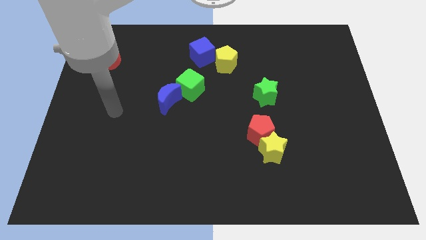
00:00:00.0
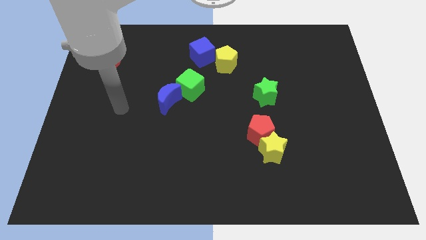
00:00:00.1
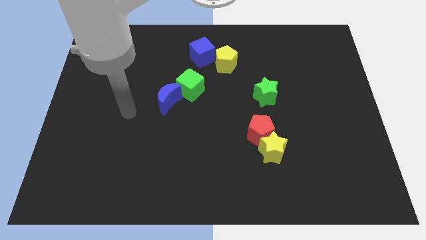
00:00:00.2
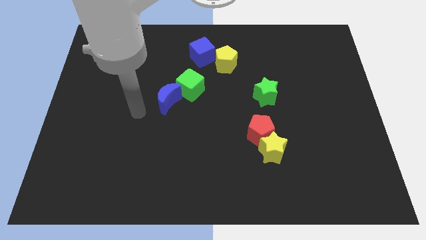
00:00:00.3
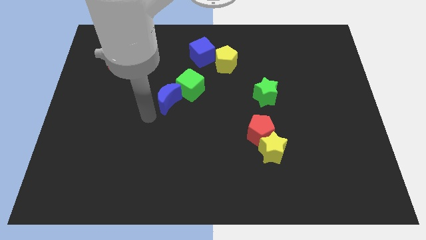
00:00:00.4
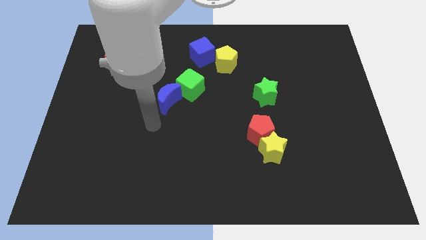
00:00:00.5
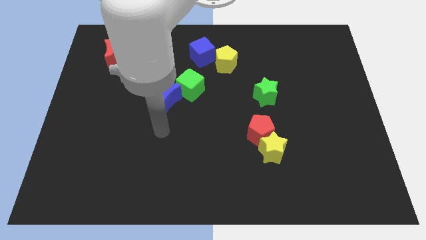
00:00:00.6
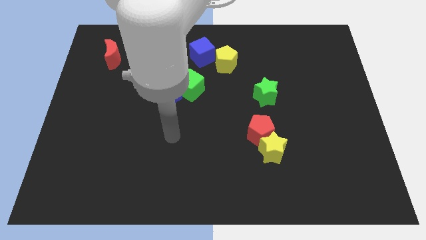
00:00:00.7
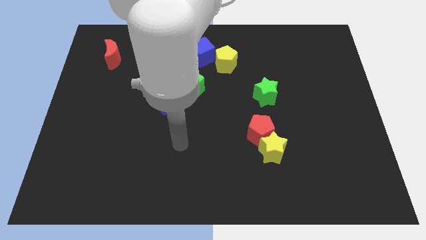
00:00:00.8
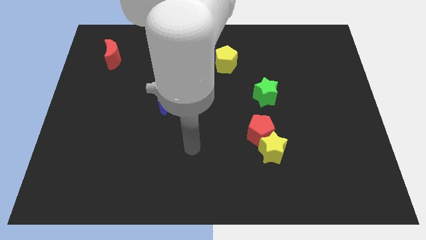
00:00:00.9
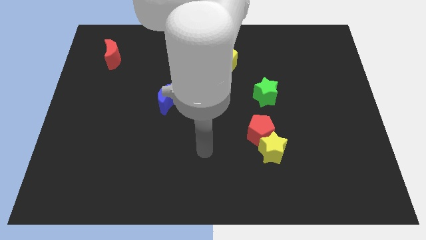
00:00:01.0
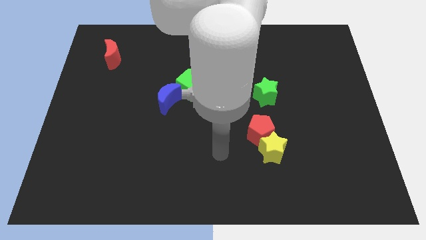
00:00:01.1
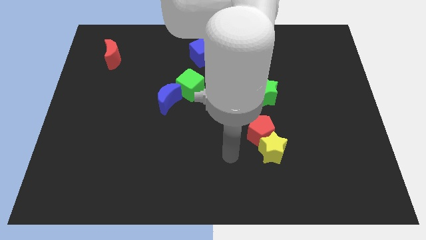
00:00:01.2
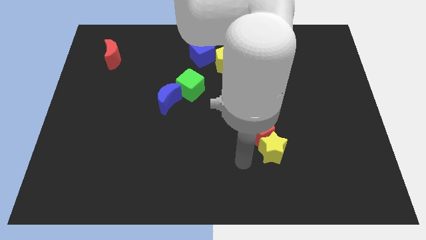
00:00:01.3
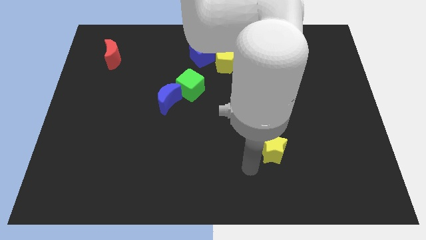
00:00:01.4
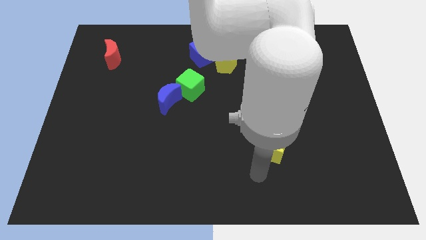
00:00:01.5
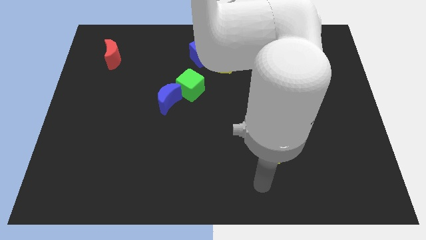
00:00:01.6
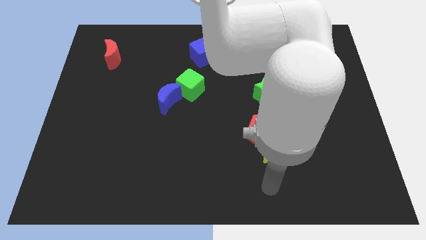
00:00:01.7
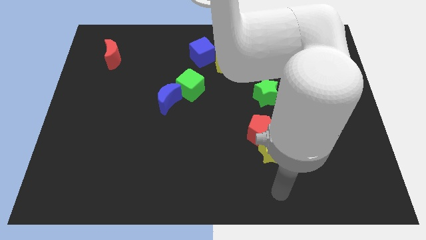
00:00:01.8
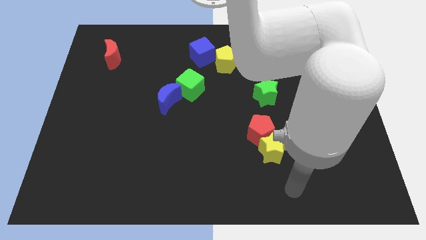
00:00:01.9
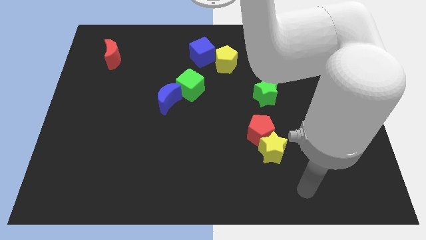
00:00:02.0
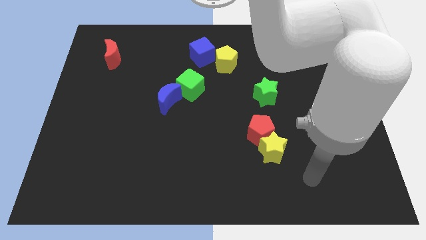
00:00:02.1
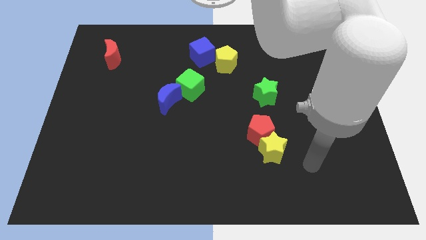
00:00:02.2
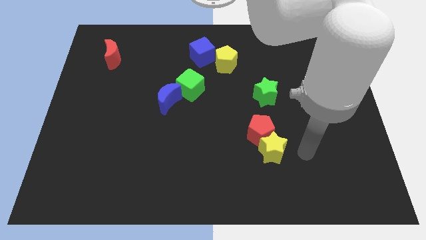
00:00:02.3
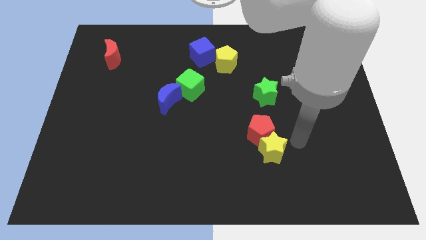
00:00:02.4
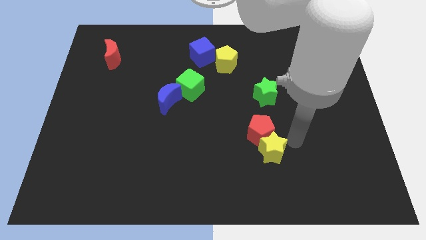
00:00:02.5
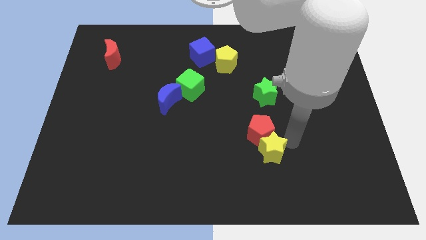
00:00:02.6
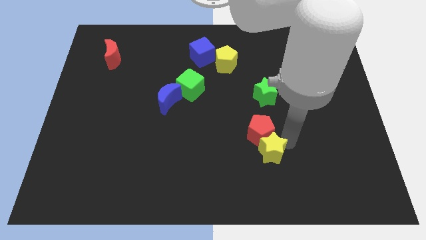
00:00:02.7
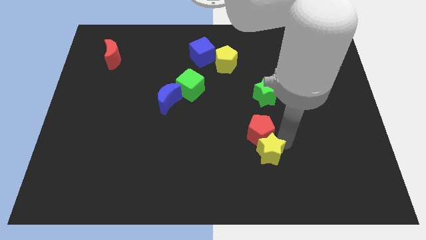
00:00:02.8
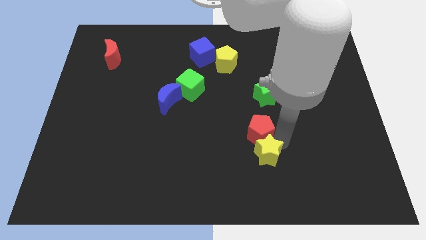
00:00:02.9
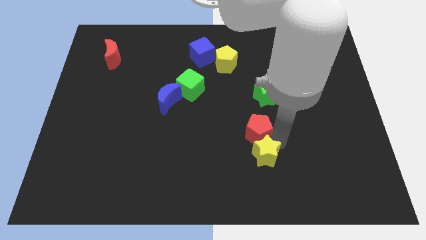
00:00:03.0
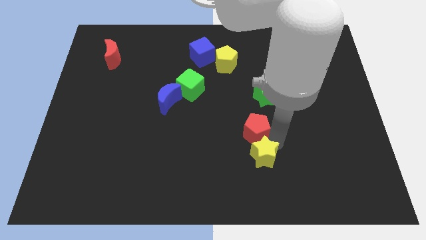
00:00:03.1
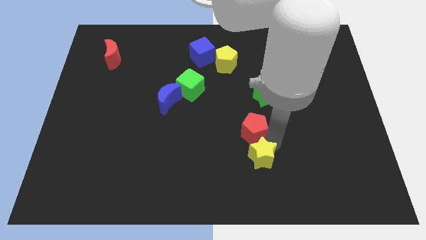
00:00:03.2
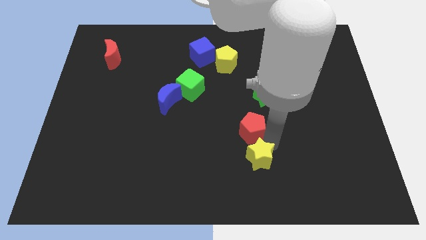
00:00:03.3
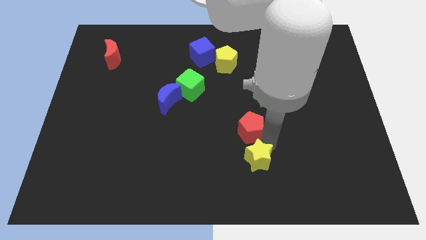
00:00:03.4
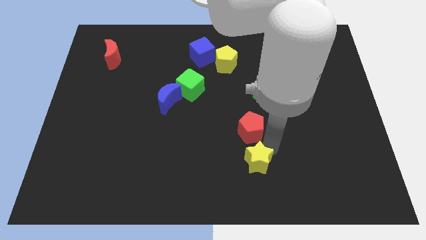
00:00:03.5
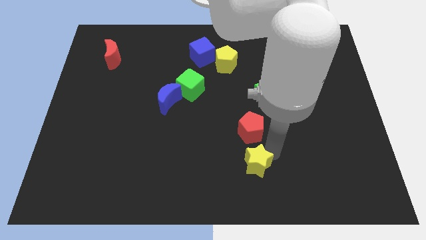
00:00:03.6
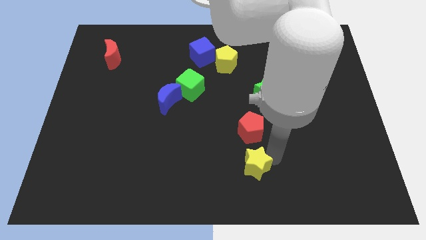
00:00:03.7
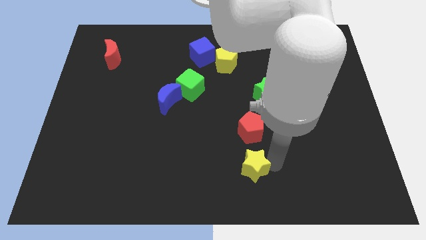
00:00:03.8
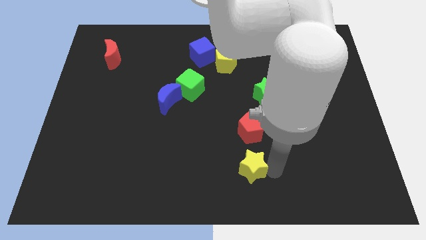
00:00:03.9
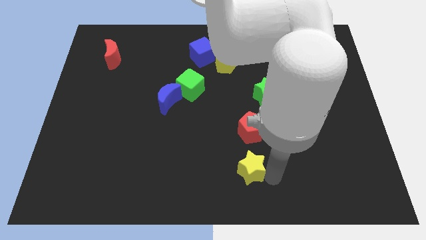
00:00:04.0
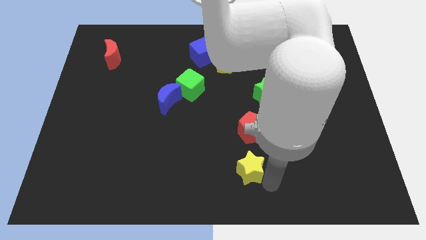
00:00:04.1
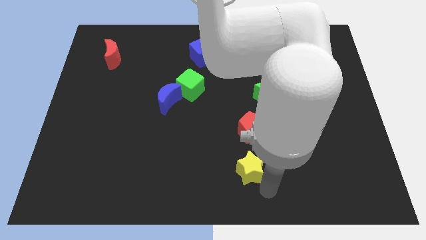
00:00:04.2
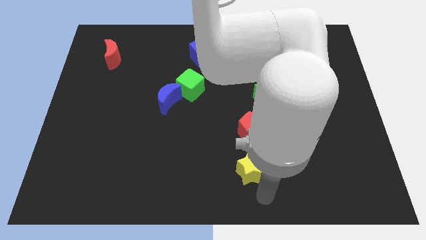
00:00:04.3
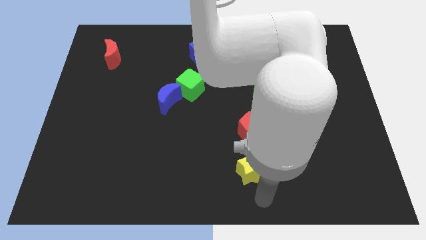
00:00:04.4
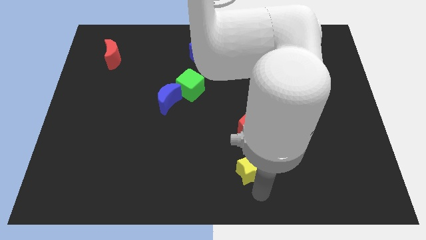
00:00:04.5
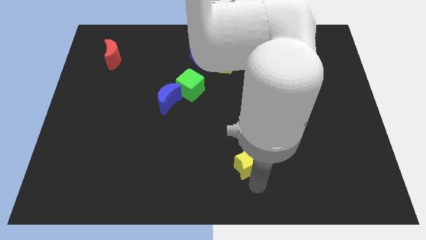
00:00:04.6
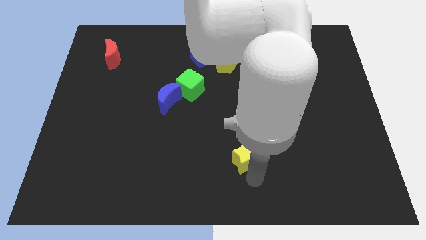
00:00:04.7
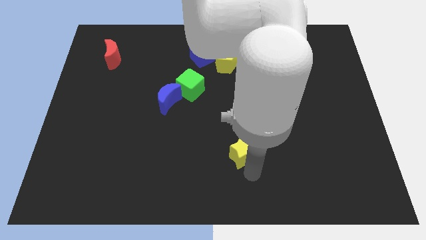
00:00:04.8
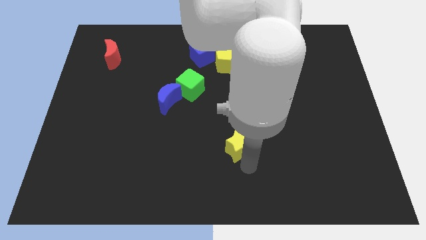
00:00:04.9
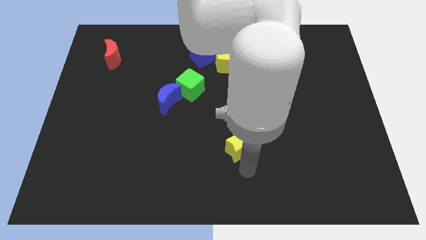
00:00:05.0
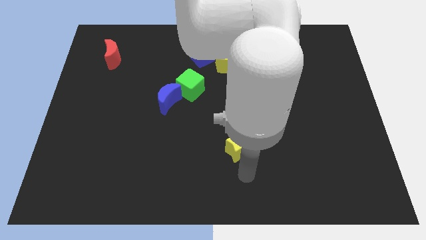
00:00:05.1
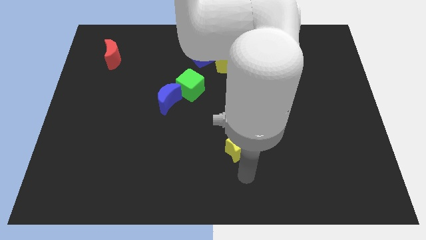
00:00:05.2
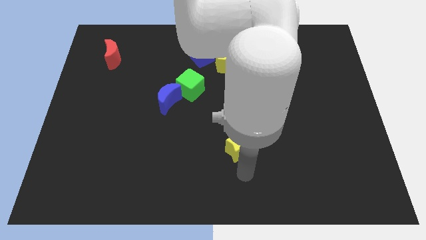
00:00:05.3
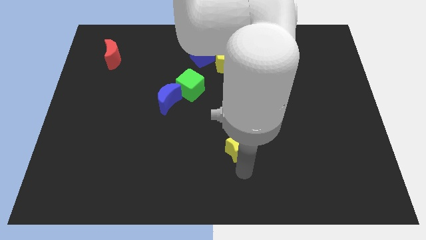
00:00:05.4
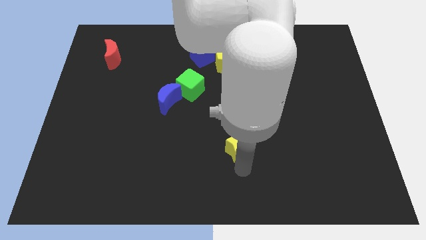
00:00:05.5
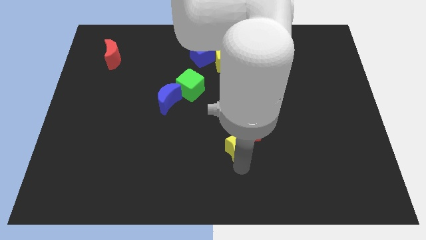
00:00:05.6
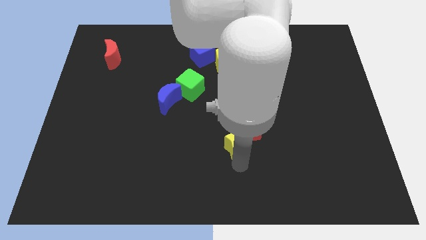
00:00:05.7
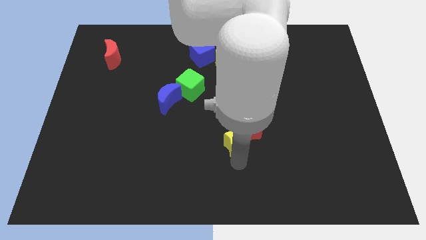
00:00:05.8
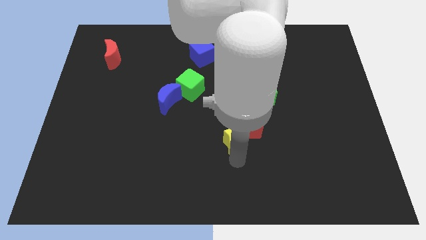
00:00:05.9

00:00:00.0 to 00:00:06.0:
push the yellow star to the center

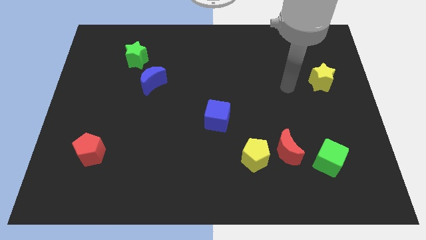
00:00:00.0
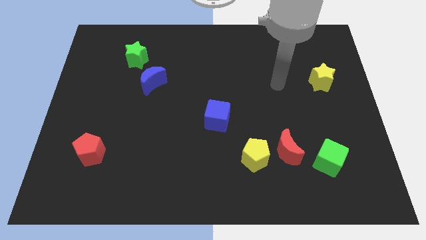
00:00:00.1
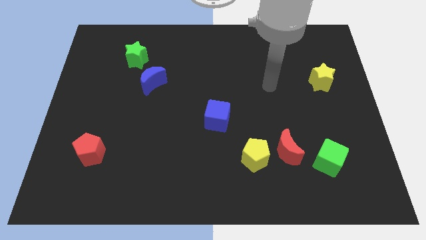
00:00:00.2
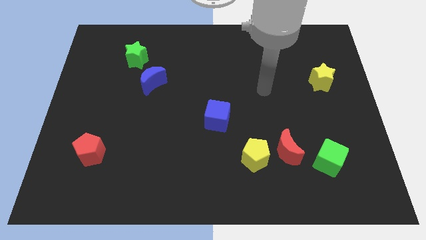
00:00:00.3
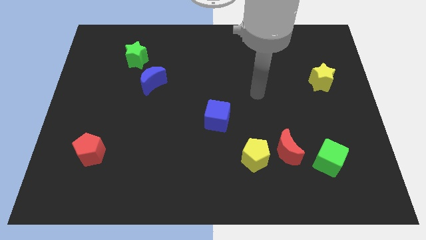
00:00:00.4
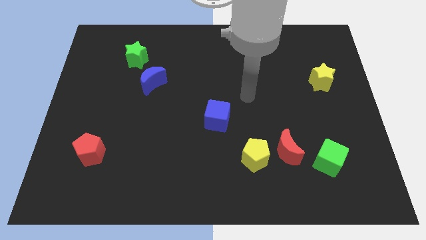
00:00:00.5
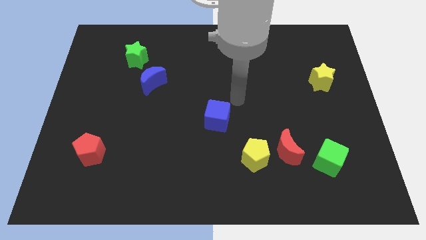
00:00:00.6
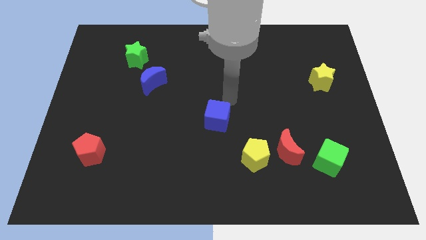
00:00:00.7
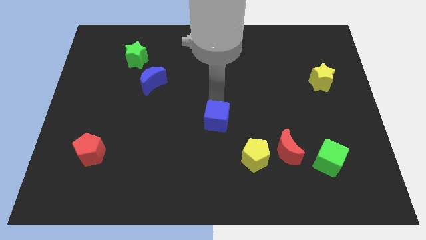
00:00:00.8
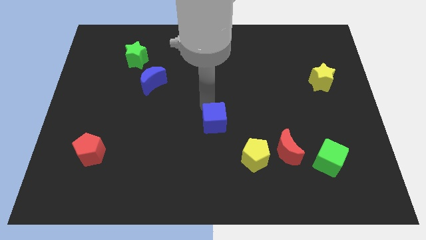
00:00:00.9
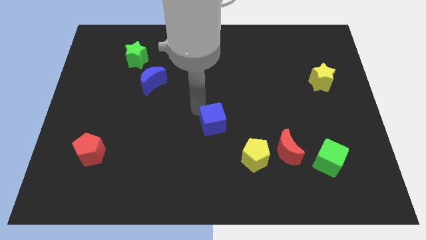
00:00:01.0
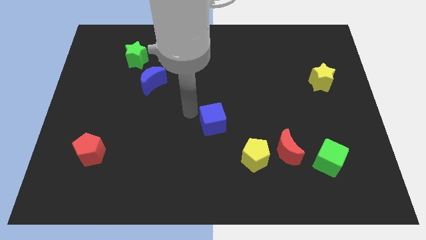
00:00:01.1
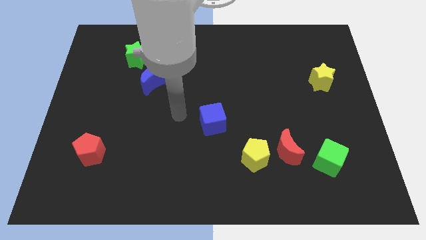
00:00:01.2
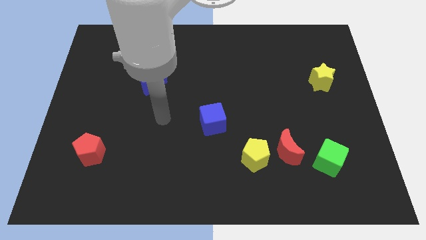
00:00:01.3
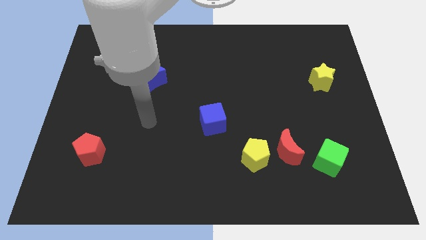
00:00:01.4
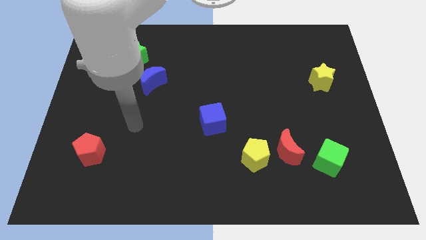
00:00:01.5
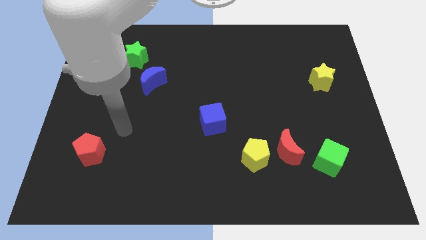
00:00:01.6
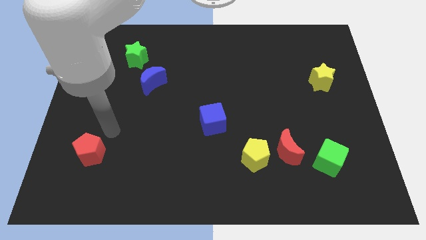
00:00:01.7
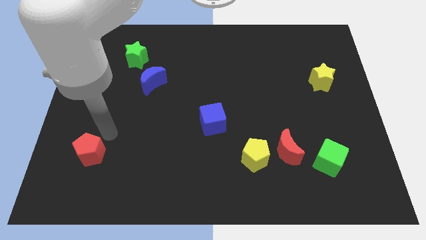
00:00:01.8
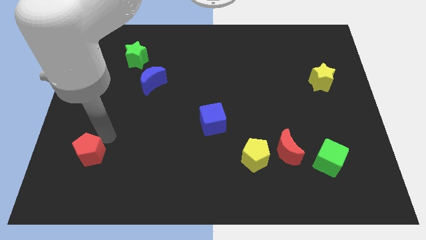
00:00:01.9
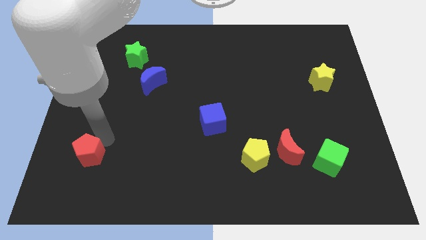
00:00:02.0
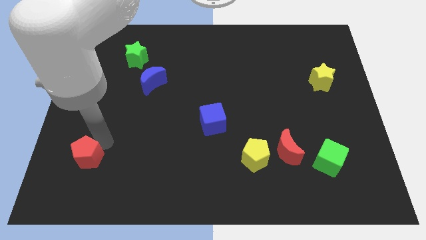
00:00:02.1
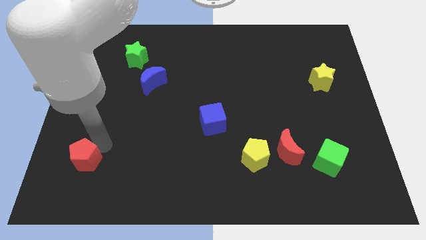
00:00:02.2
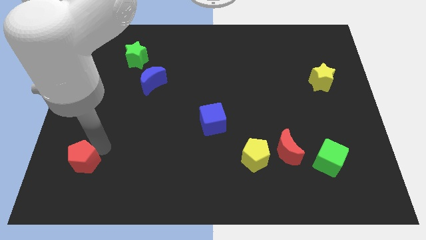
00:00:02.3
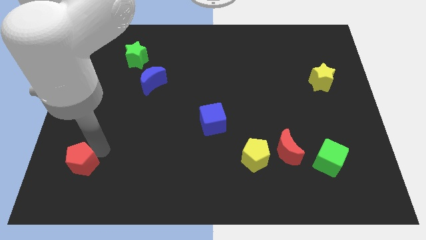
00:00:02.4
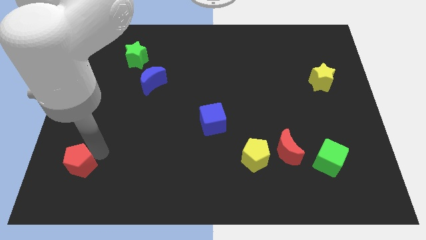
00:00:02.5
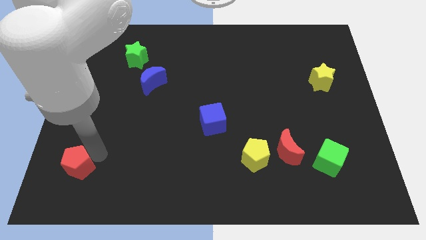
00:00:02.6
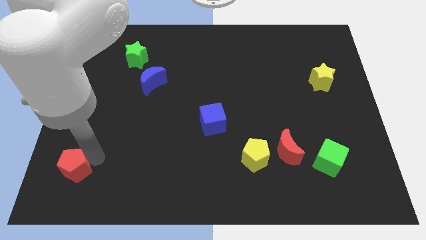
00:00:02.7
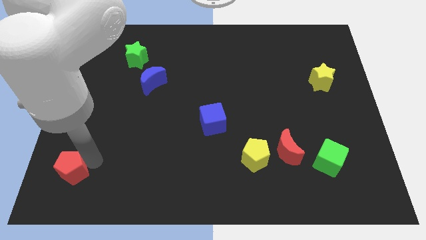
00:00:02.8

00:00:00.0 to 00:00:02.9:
put the red pentagon to the bottom left corner
